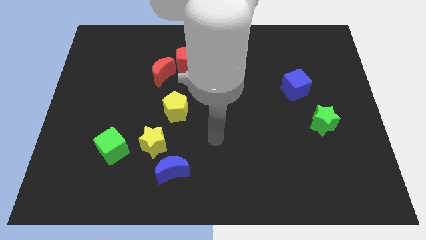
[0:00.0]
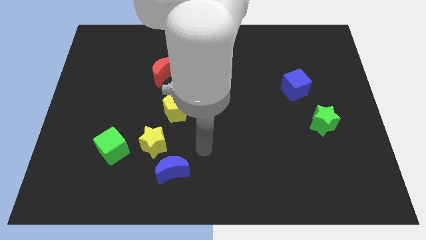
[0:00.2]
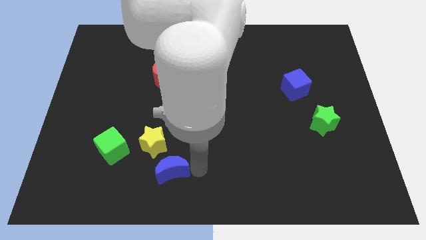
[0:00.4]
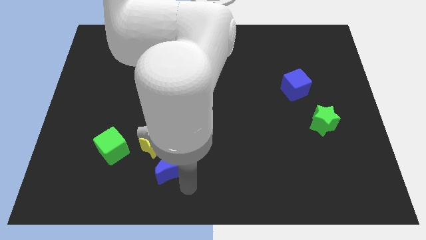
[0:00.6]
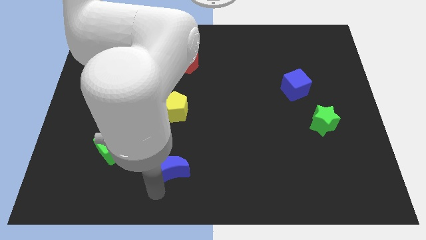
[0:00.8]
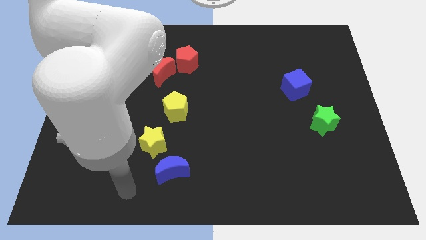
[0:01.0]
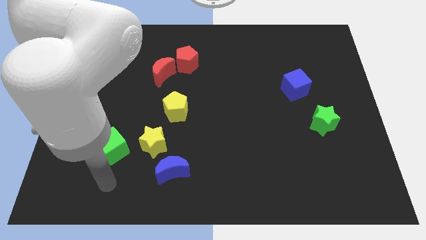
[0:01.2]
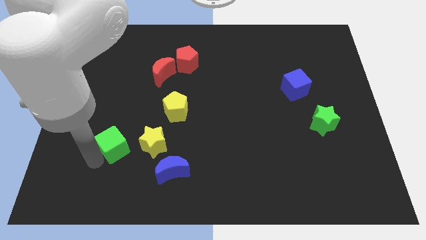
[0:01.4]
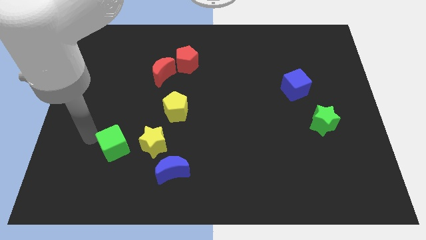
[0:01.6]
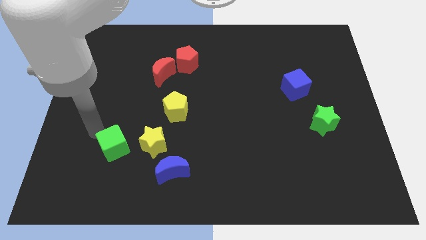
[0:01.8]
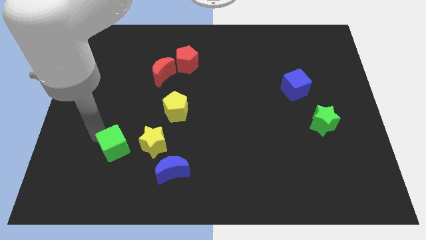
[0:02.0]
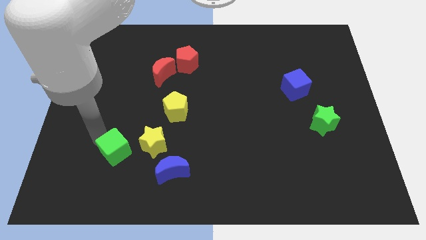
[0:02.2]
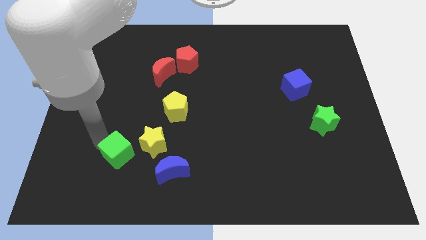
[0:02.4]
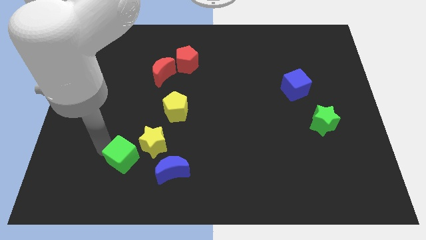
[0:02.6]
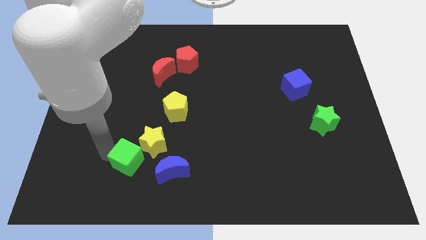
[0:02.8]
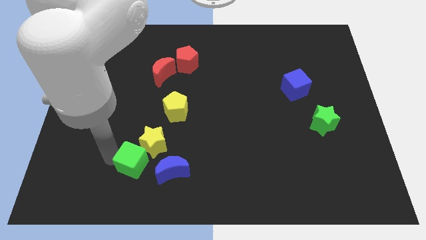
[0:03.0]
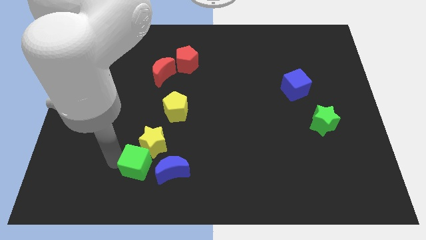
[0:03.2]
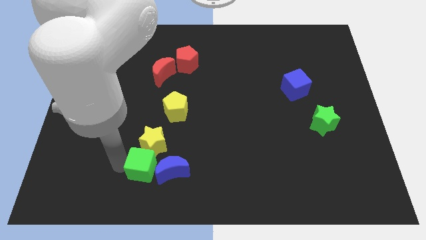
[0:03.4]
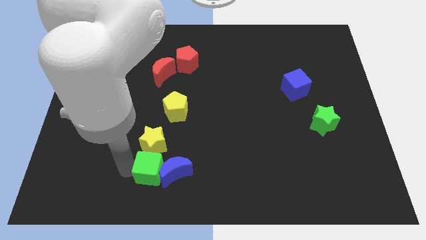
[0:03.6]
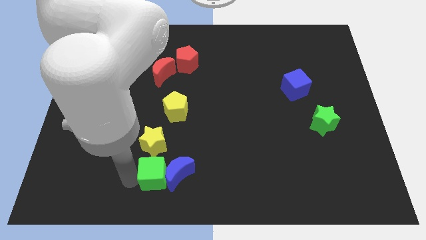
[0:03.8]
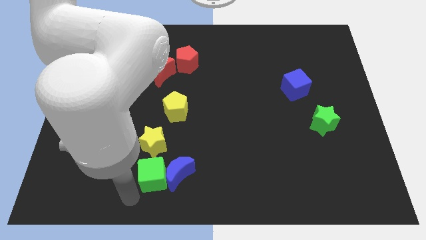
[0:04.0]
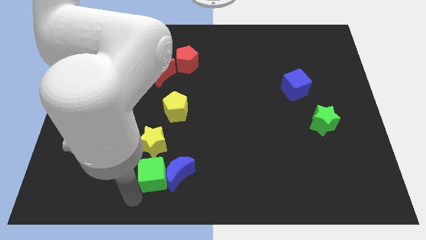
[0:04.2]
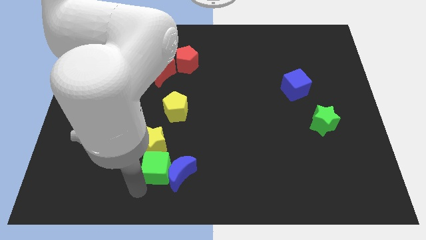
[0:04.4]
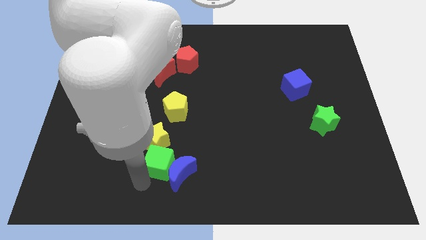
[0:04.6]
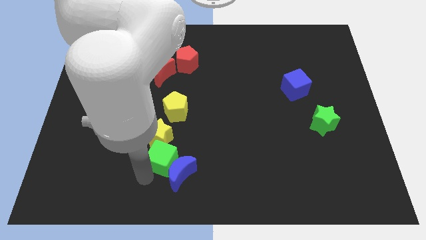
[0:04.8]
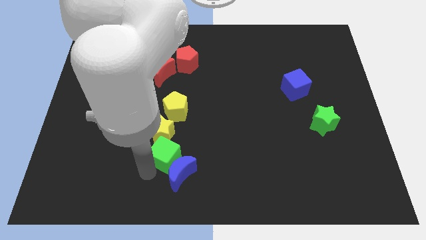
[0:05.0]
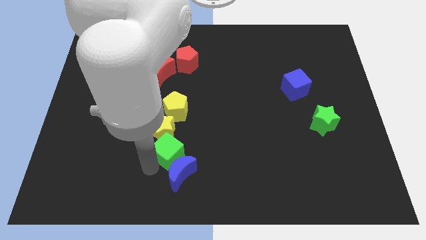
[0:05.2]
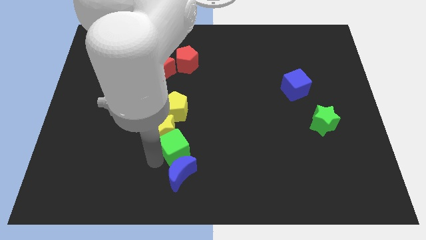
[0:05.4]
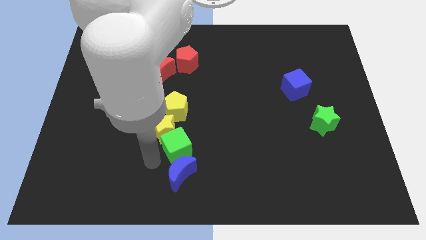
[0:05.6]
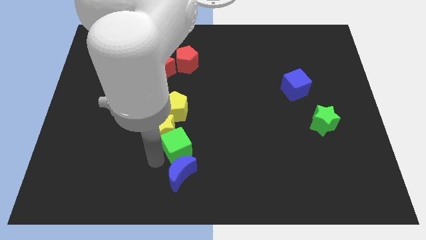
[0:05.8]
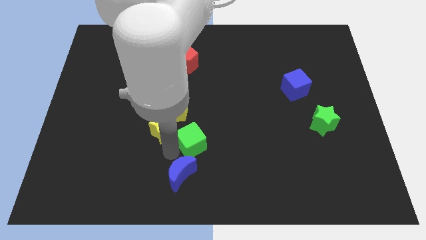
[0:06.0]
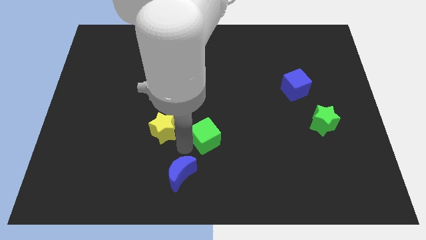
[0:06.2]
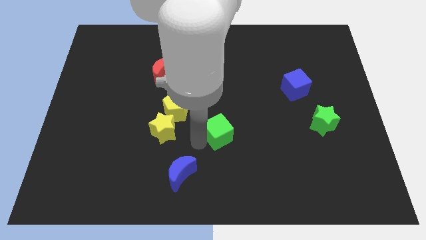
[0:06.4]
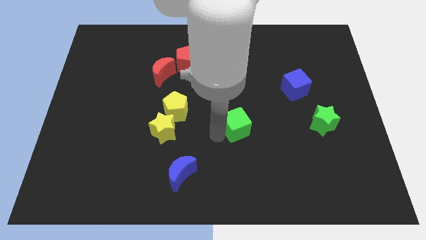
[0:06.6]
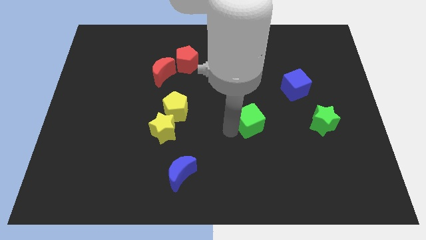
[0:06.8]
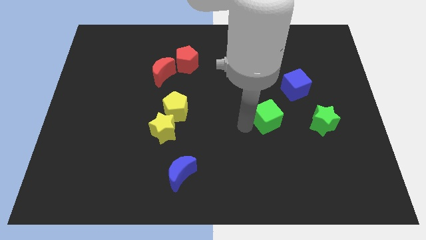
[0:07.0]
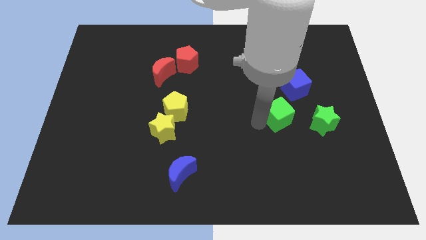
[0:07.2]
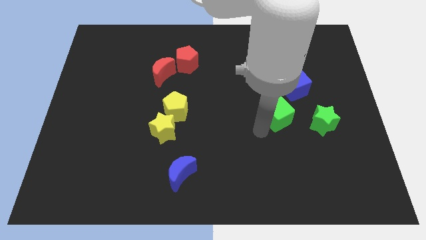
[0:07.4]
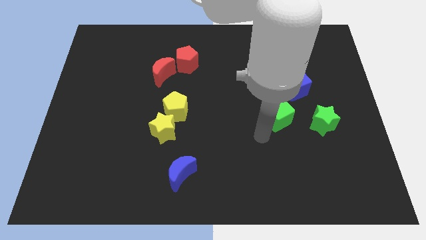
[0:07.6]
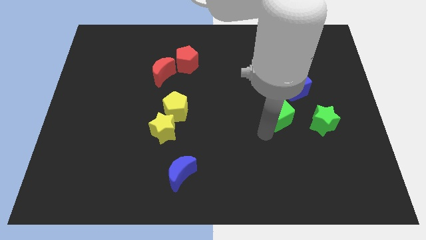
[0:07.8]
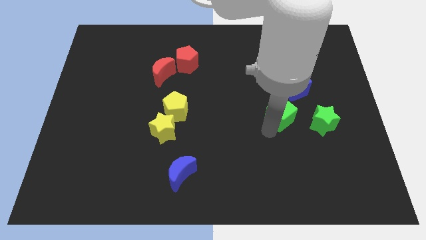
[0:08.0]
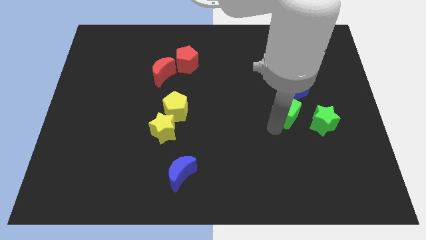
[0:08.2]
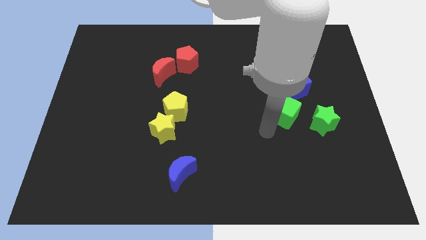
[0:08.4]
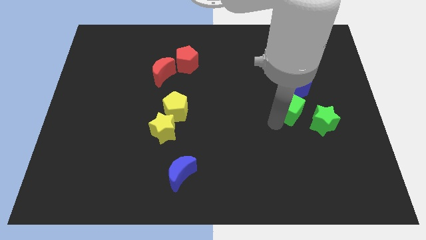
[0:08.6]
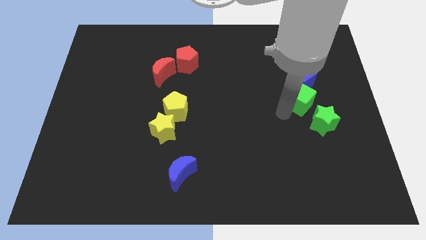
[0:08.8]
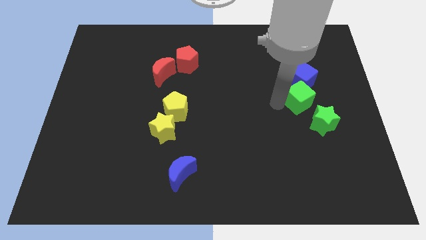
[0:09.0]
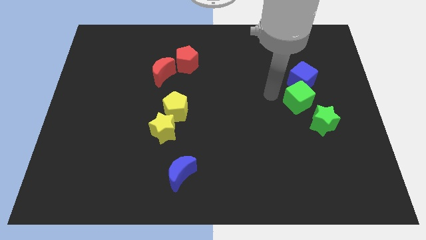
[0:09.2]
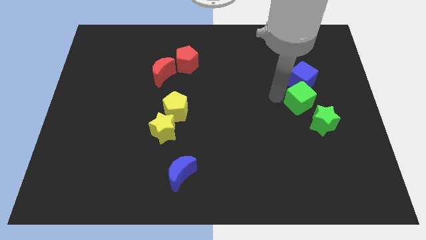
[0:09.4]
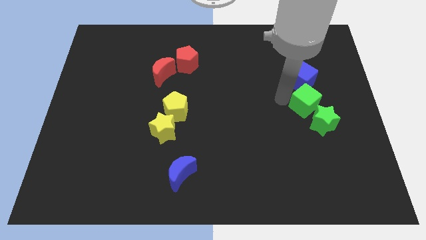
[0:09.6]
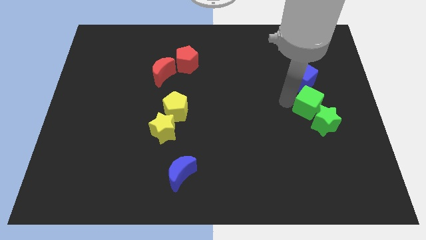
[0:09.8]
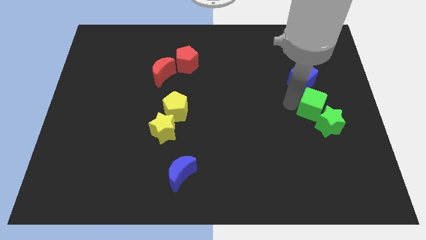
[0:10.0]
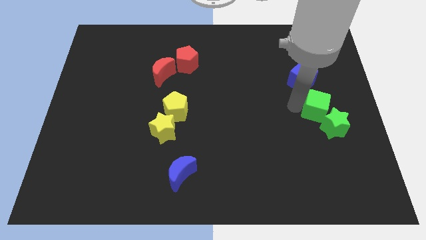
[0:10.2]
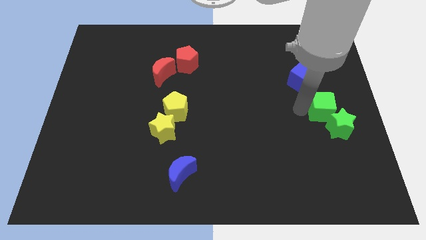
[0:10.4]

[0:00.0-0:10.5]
push the green cube to the right side
